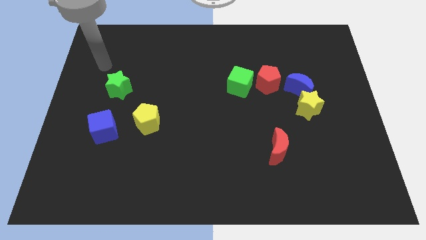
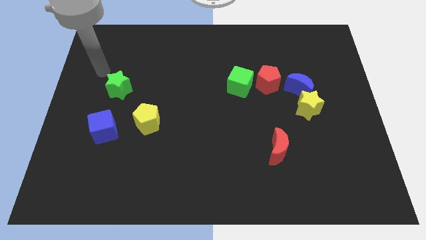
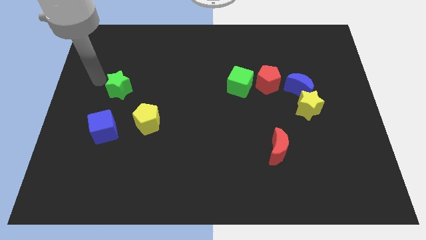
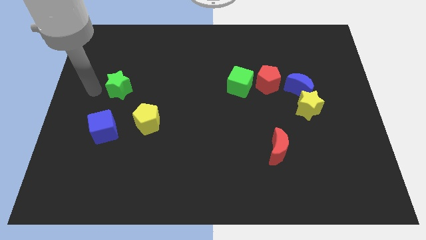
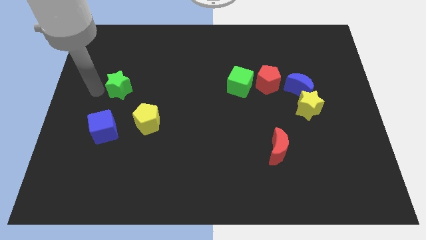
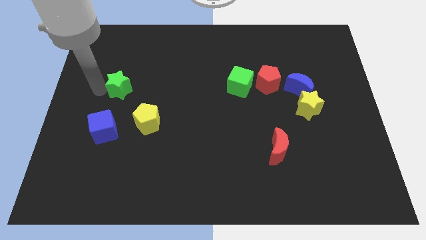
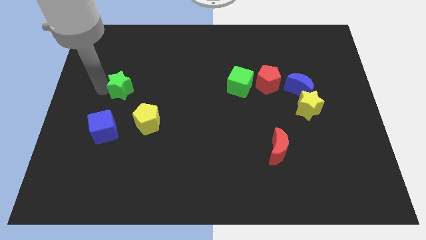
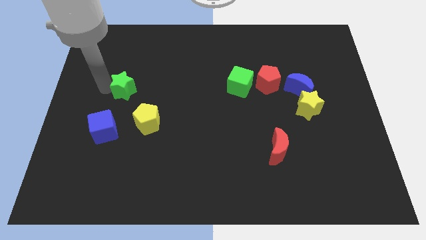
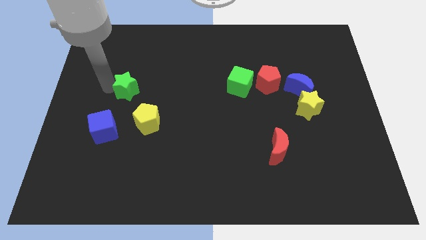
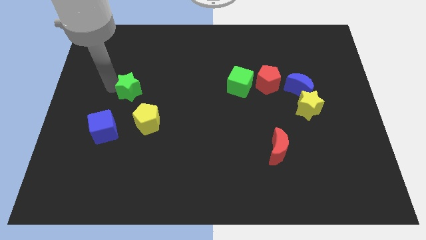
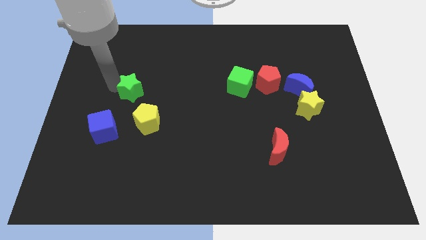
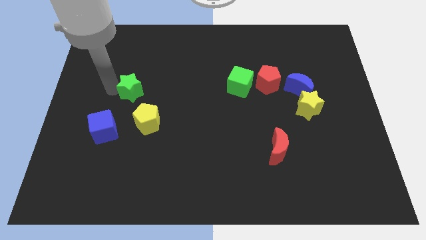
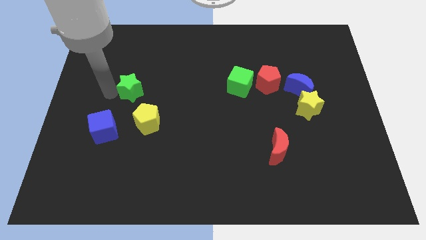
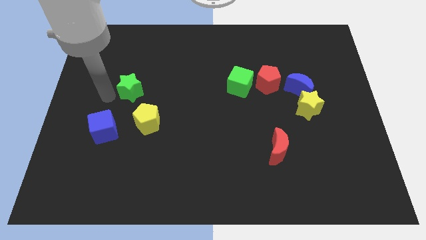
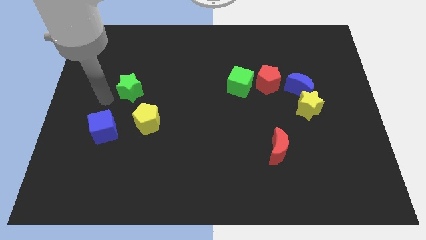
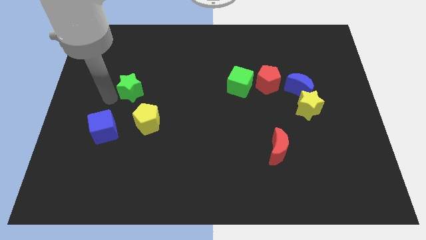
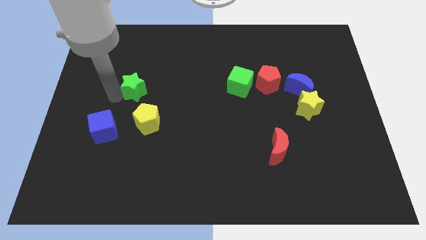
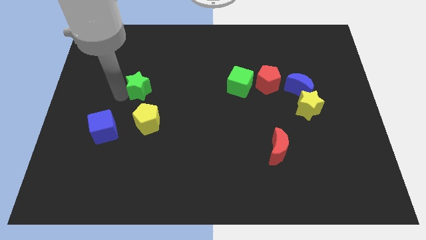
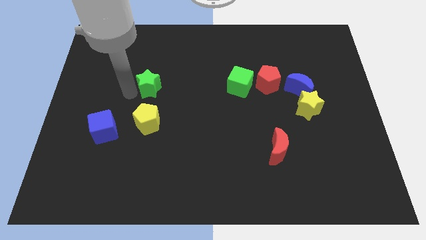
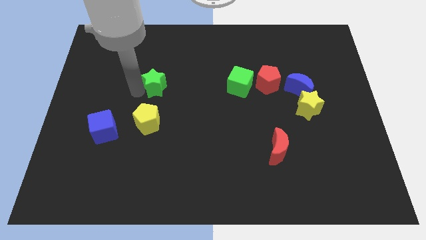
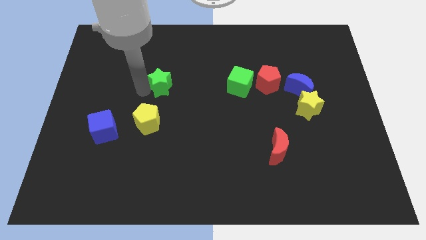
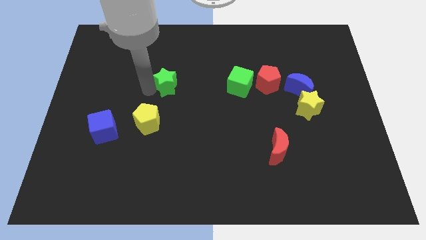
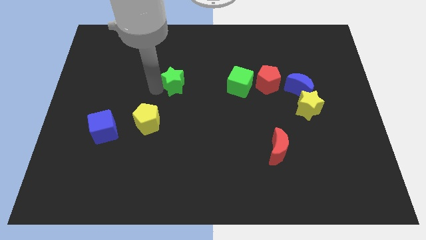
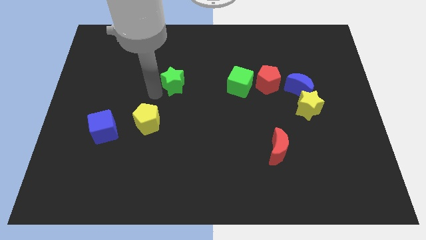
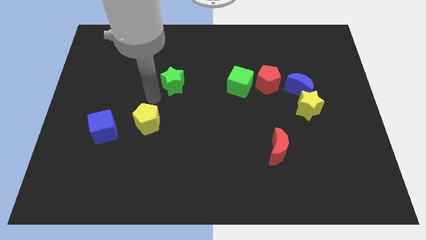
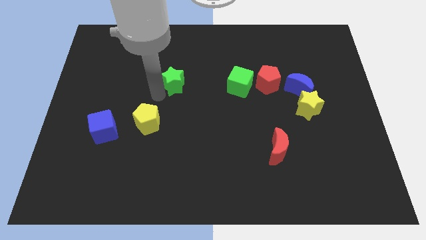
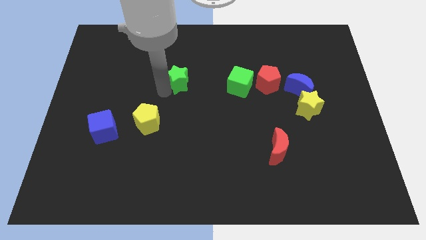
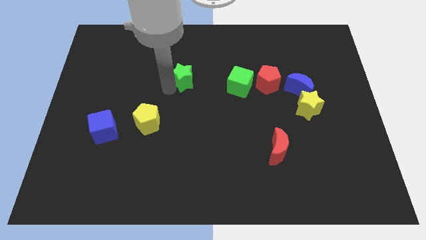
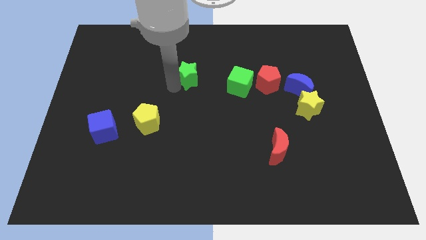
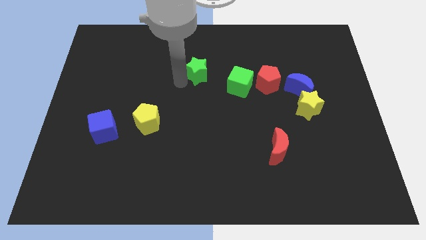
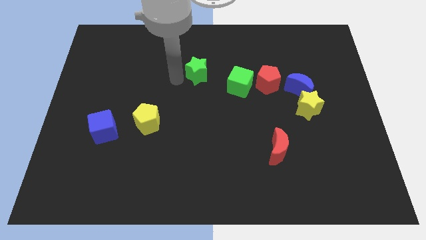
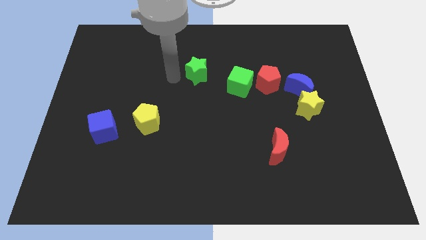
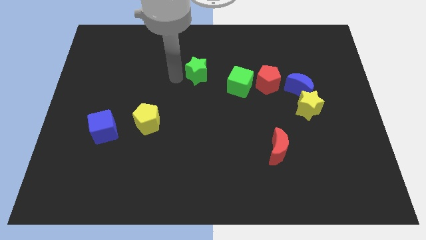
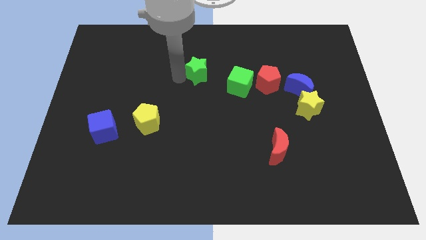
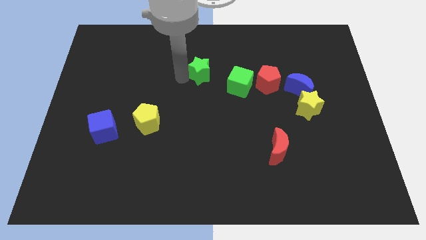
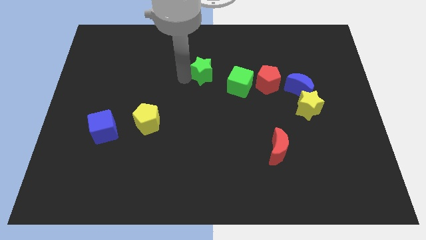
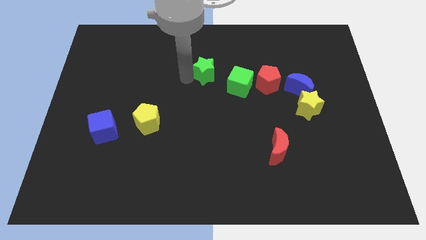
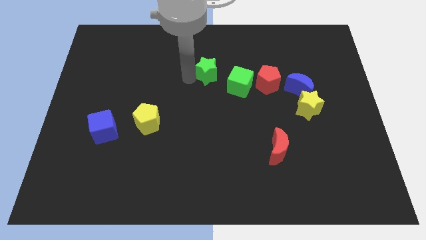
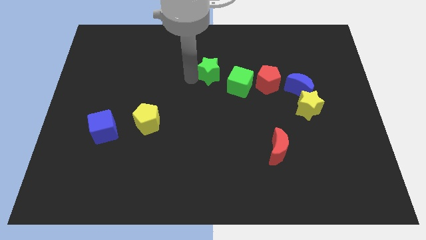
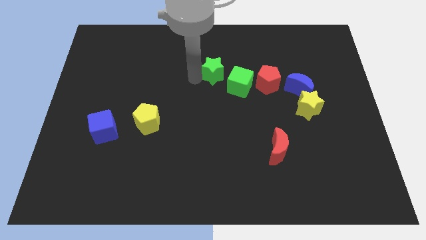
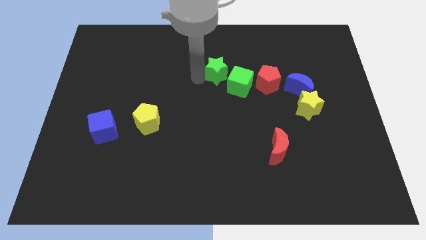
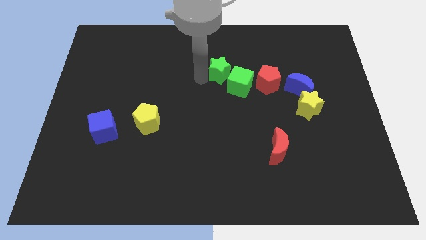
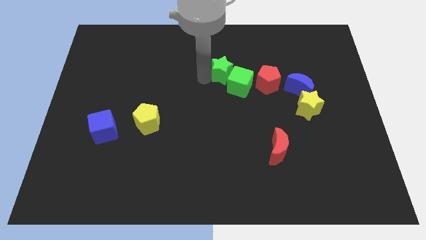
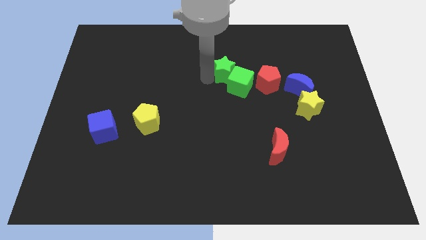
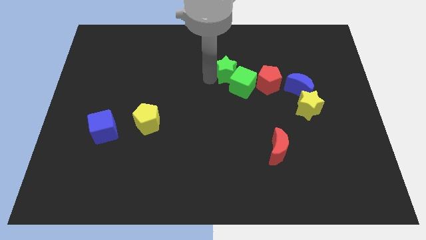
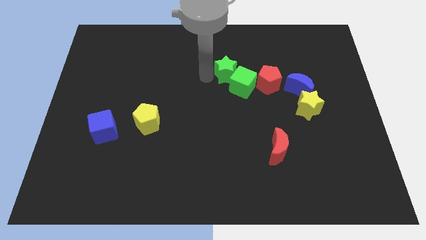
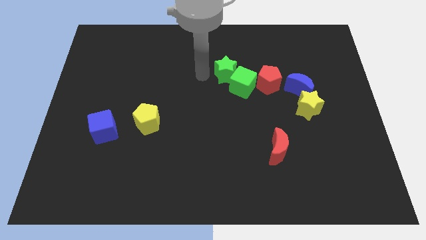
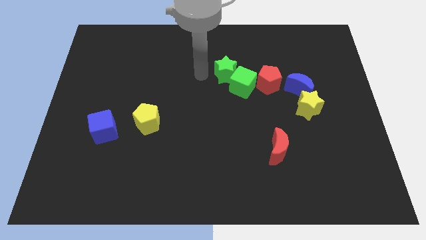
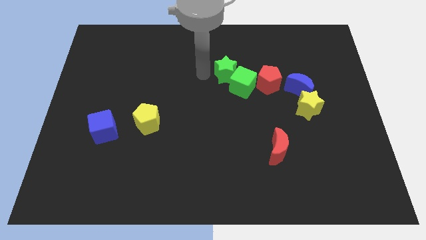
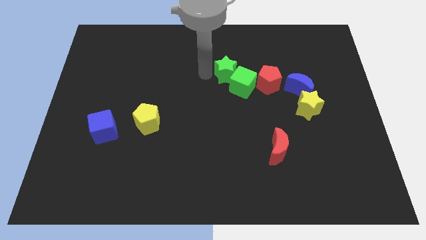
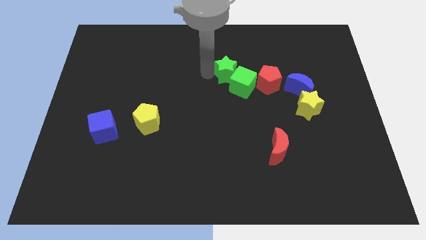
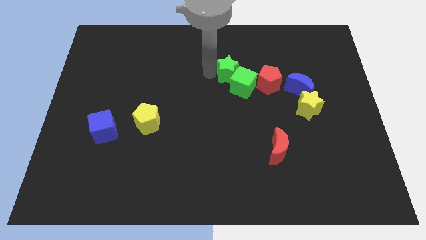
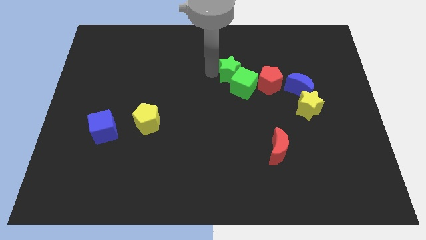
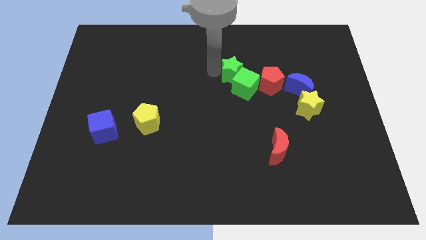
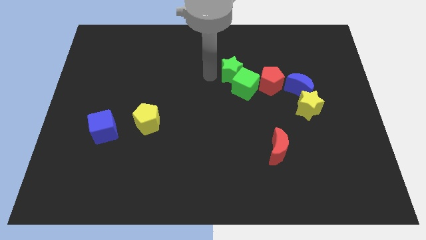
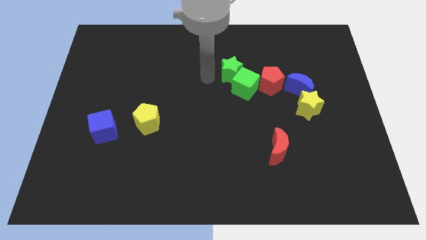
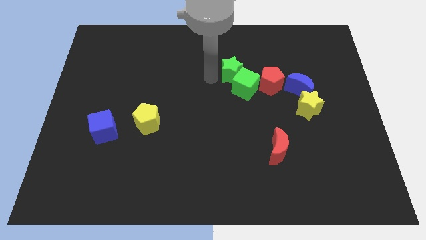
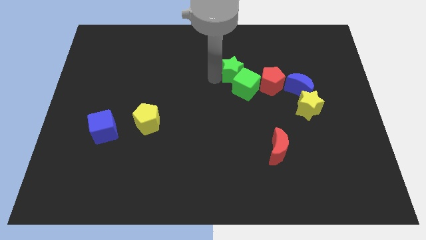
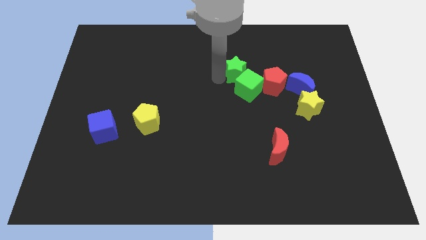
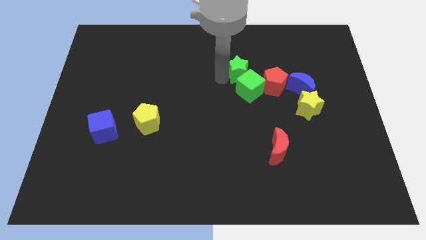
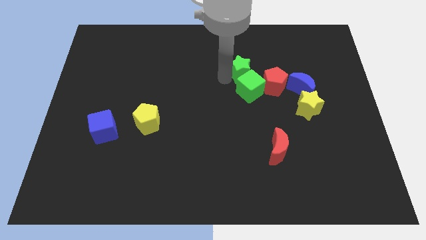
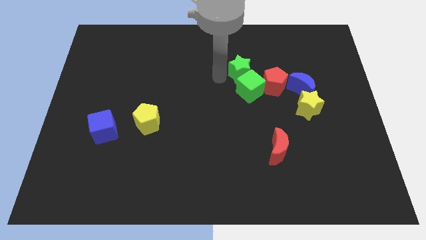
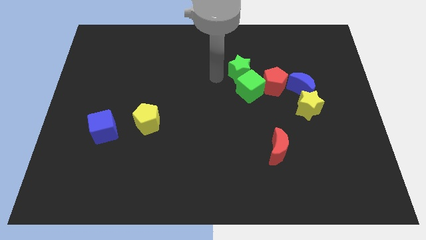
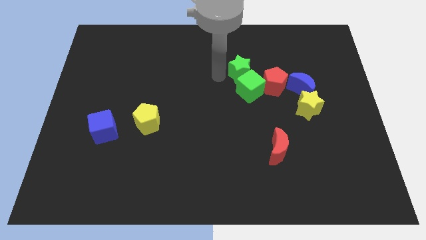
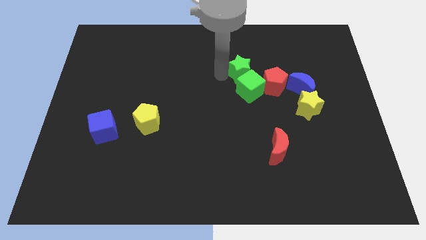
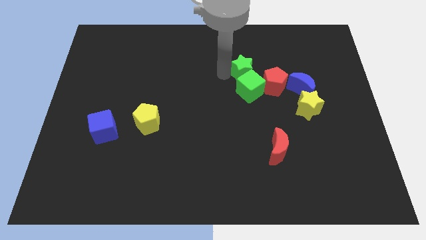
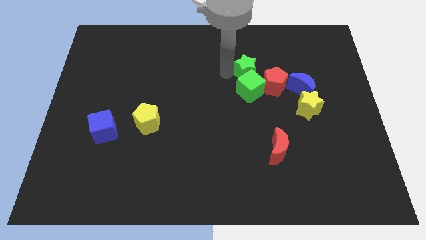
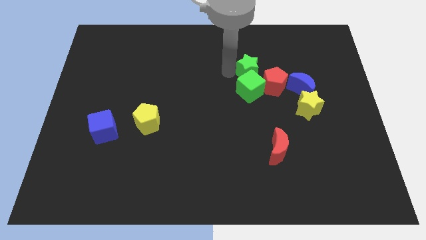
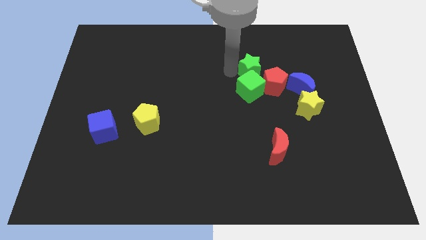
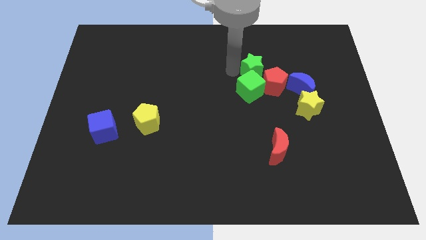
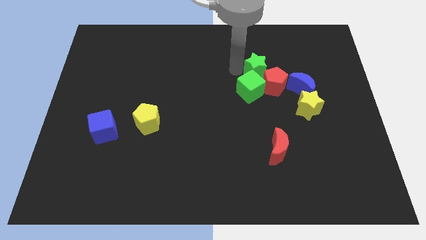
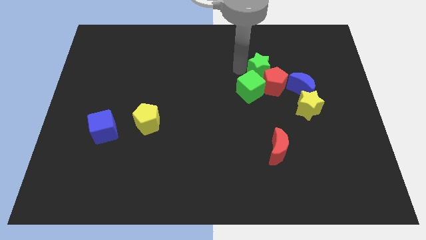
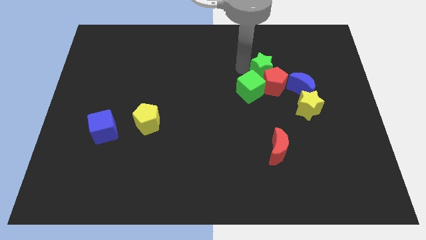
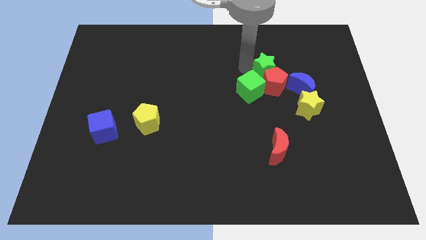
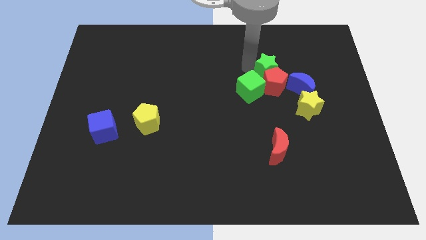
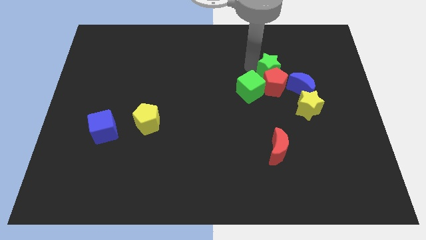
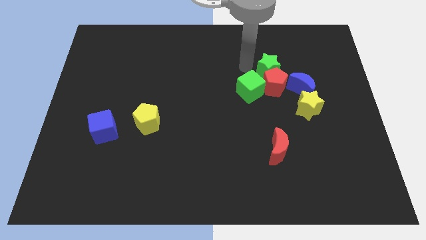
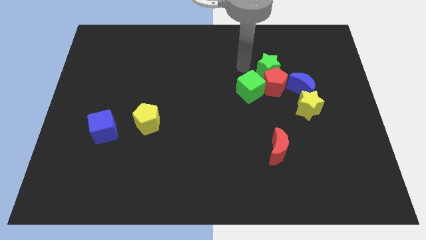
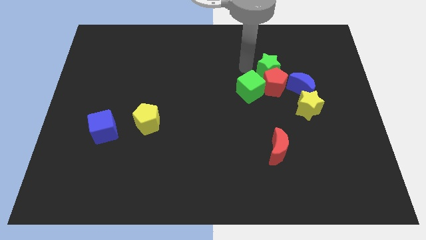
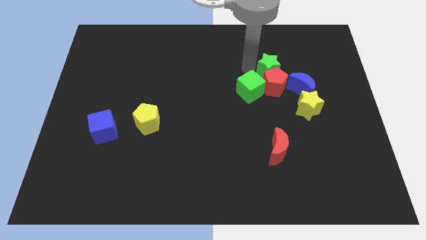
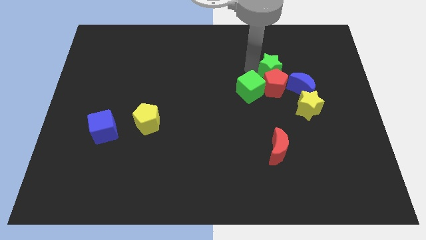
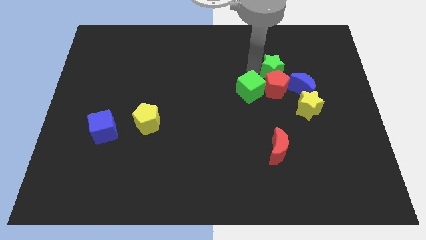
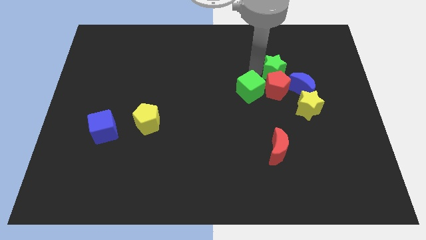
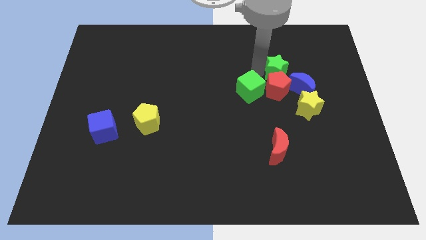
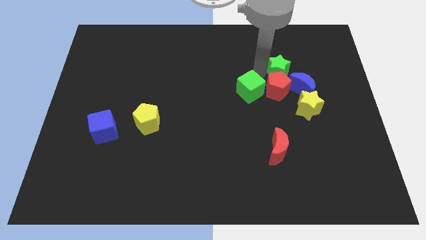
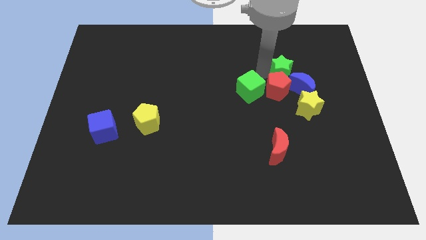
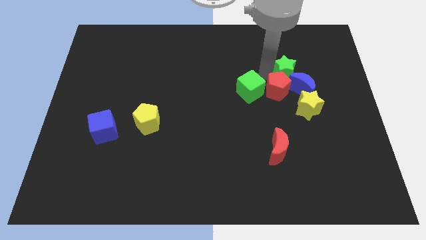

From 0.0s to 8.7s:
slide the green star to the top side of the yellow star
